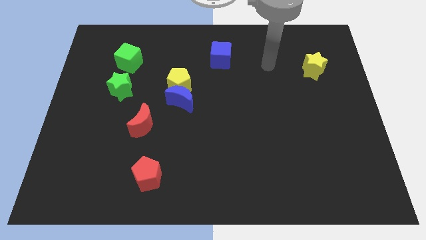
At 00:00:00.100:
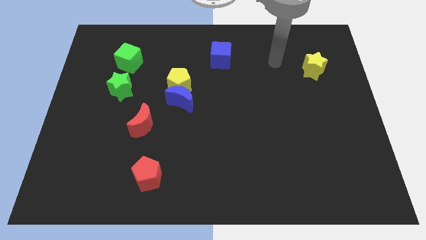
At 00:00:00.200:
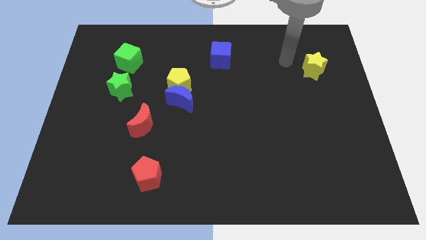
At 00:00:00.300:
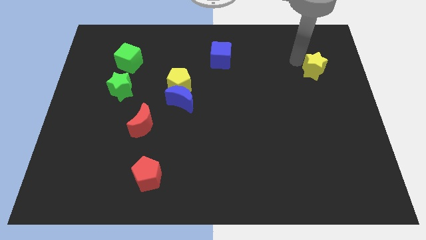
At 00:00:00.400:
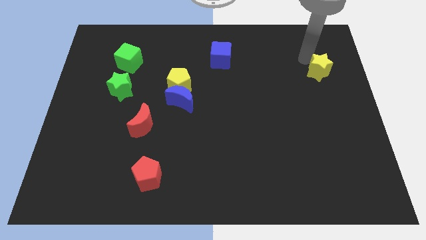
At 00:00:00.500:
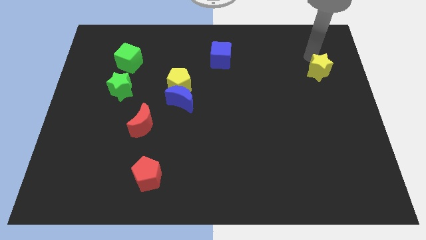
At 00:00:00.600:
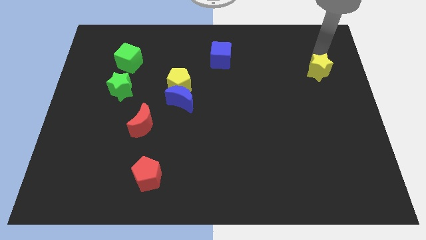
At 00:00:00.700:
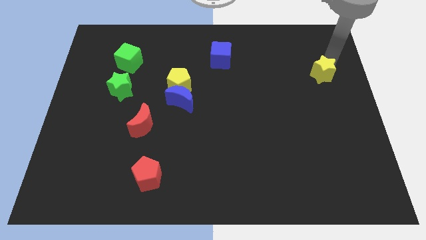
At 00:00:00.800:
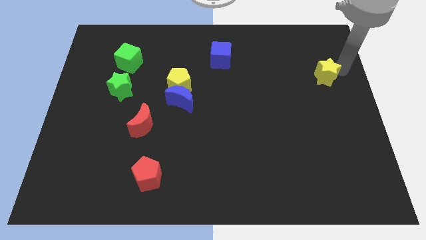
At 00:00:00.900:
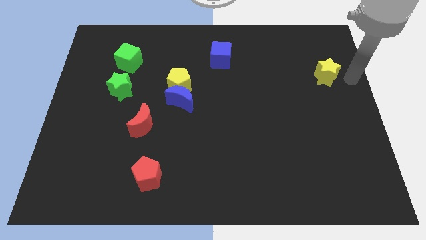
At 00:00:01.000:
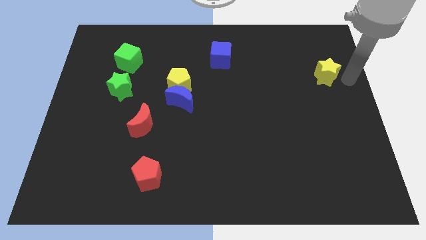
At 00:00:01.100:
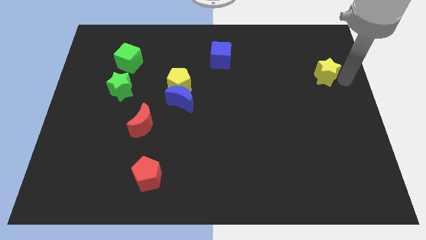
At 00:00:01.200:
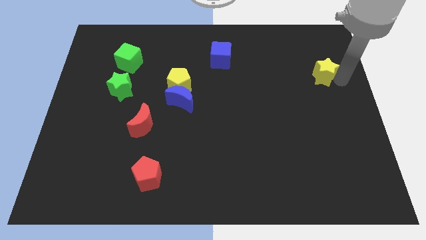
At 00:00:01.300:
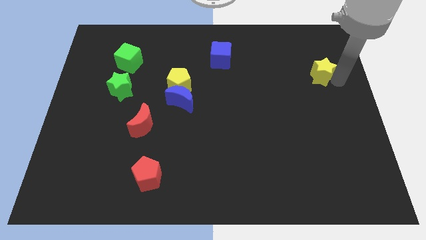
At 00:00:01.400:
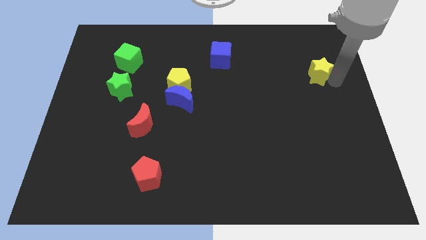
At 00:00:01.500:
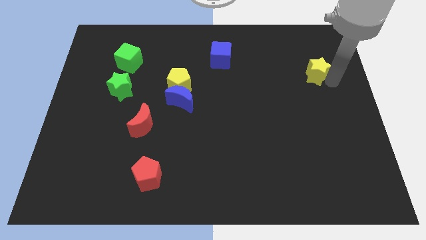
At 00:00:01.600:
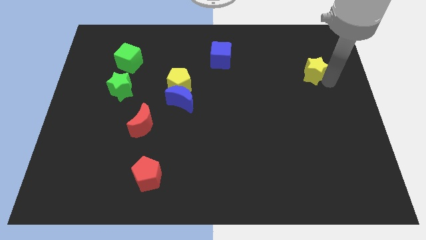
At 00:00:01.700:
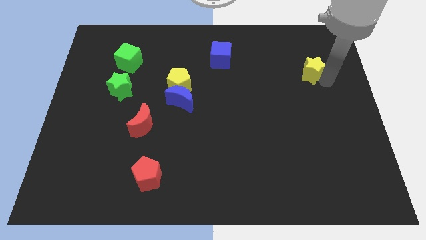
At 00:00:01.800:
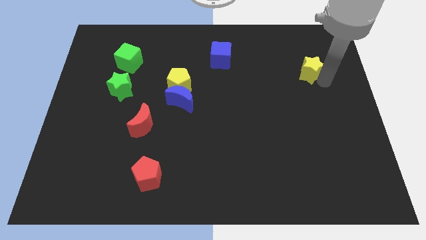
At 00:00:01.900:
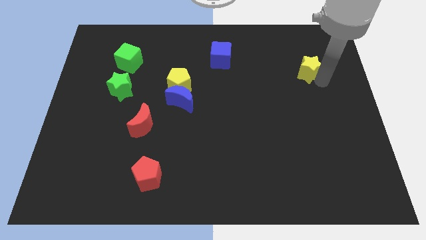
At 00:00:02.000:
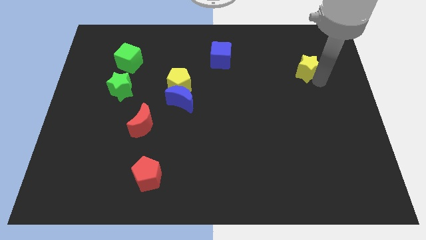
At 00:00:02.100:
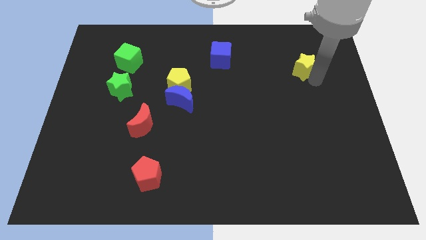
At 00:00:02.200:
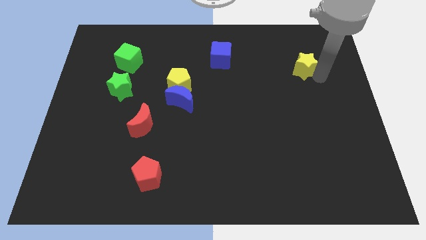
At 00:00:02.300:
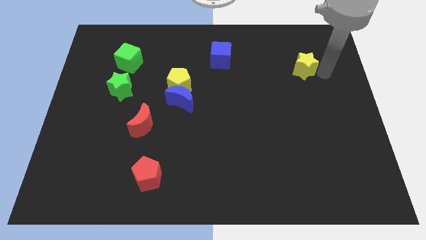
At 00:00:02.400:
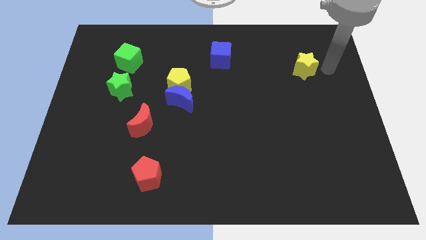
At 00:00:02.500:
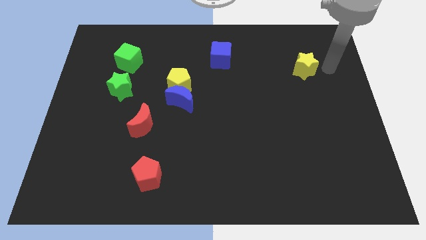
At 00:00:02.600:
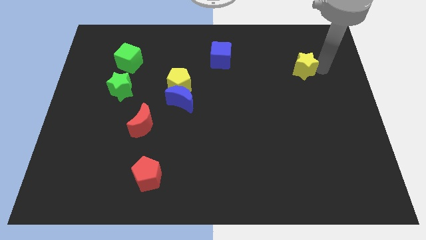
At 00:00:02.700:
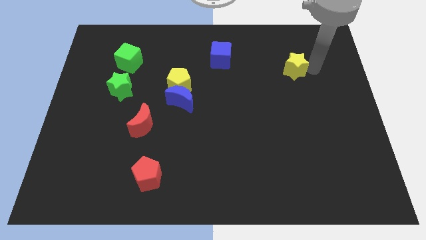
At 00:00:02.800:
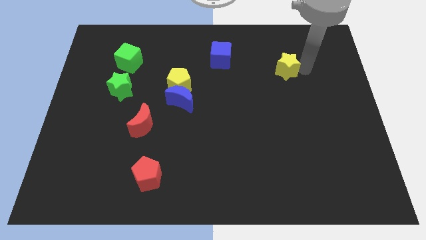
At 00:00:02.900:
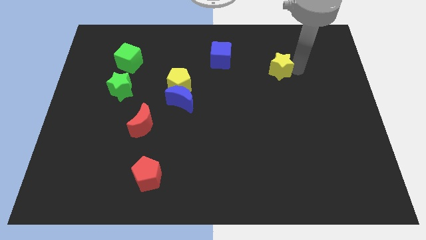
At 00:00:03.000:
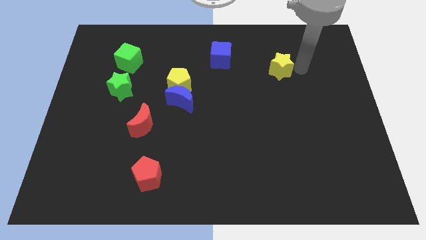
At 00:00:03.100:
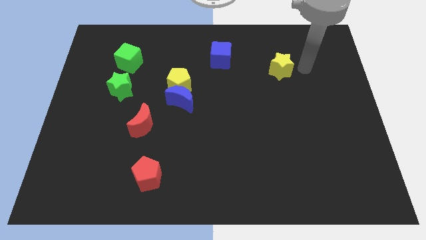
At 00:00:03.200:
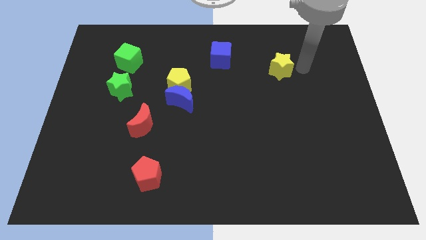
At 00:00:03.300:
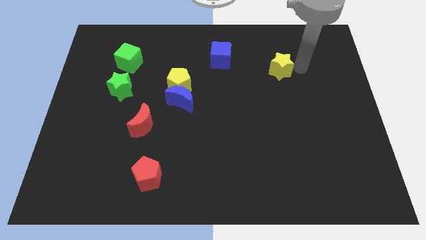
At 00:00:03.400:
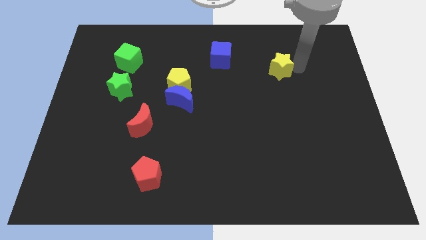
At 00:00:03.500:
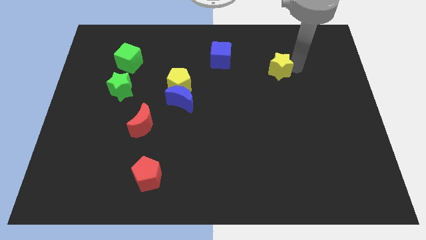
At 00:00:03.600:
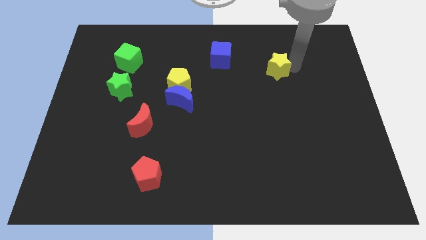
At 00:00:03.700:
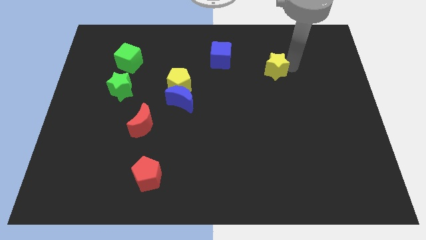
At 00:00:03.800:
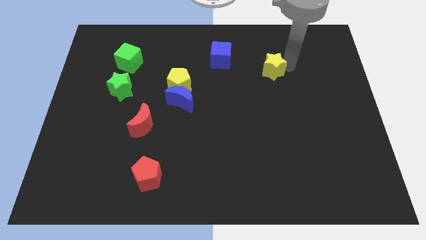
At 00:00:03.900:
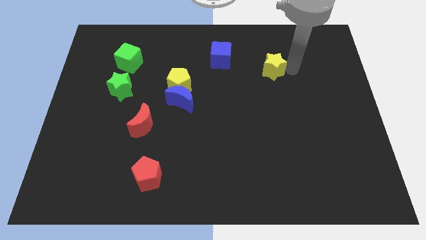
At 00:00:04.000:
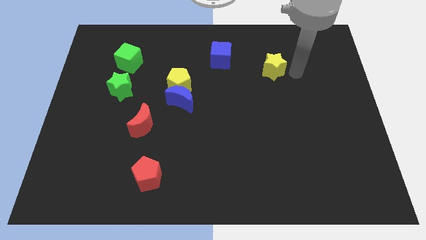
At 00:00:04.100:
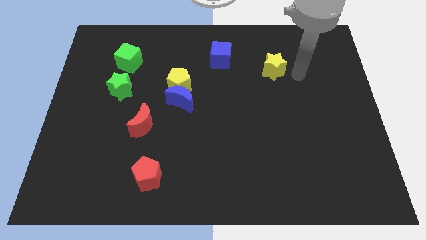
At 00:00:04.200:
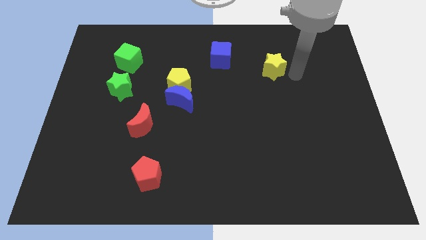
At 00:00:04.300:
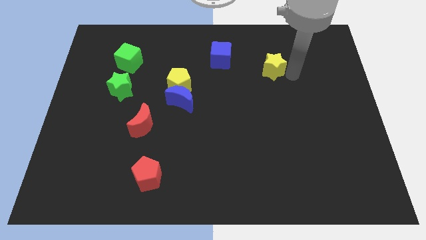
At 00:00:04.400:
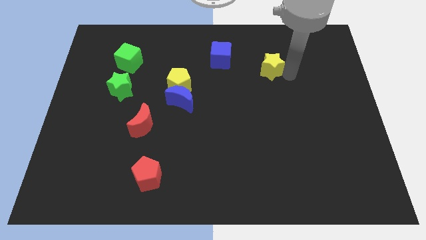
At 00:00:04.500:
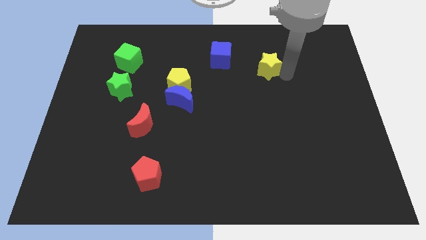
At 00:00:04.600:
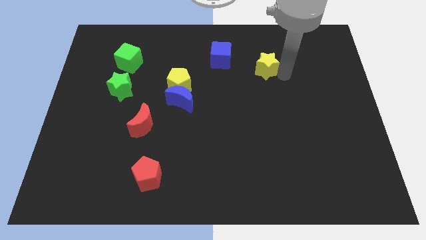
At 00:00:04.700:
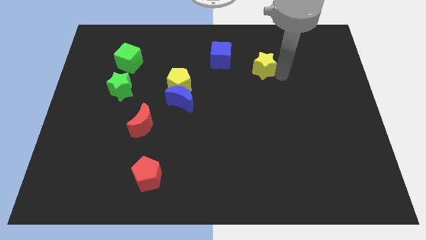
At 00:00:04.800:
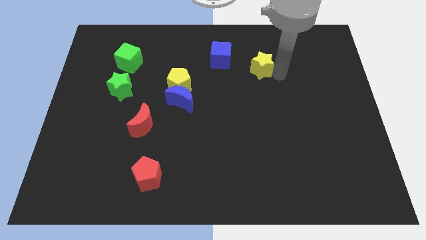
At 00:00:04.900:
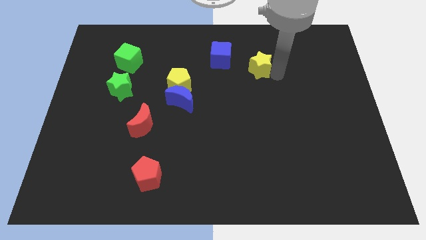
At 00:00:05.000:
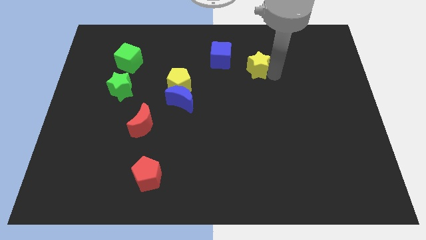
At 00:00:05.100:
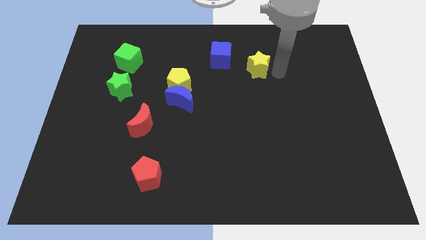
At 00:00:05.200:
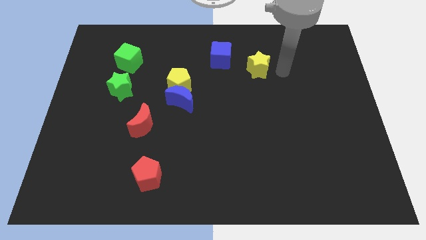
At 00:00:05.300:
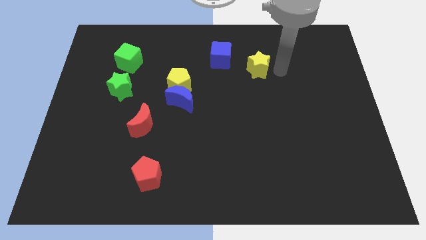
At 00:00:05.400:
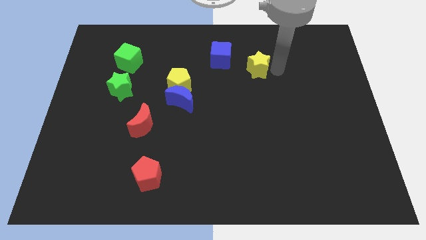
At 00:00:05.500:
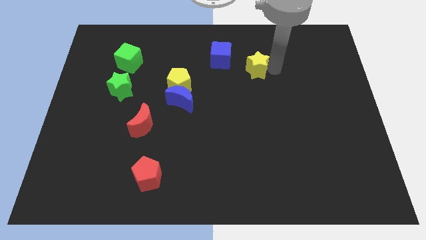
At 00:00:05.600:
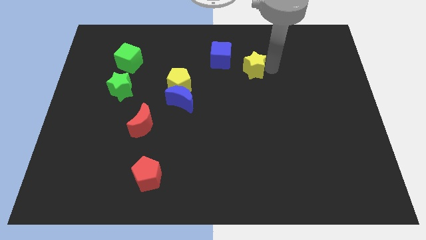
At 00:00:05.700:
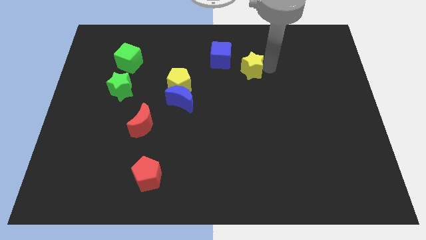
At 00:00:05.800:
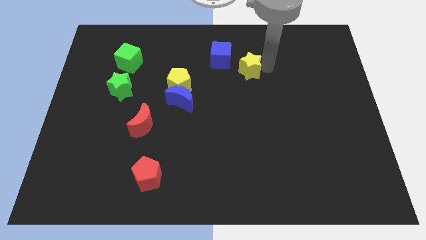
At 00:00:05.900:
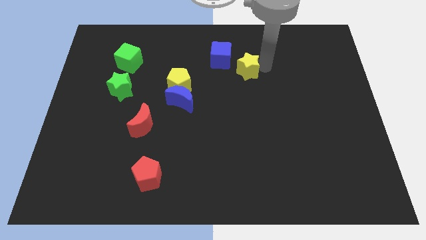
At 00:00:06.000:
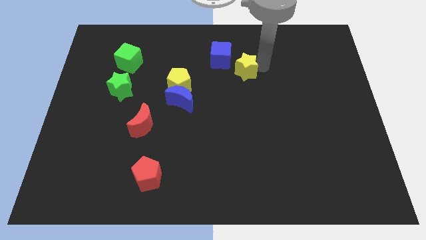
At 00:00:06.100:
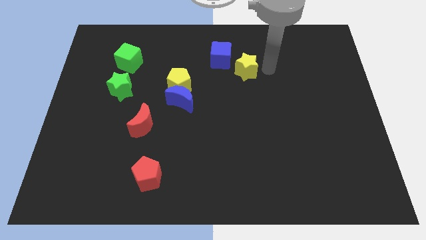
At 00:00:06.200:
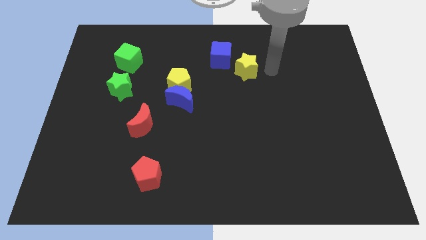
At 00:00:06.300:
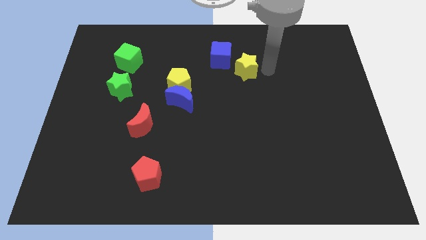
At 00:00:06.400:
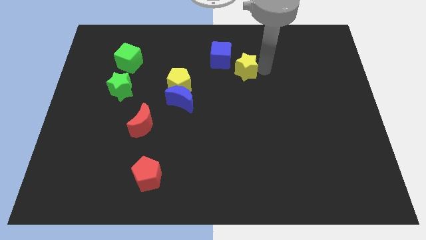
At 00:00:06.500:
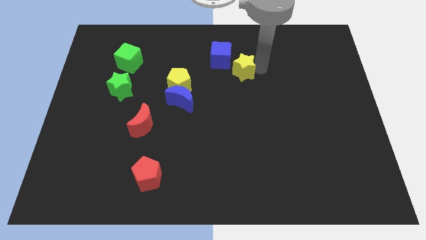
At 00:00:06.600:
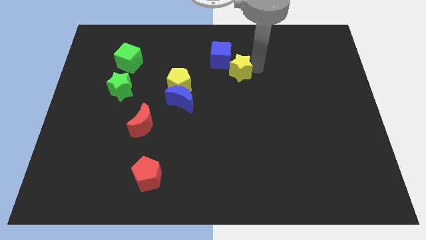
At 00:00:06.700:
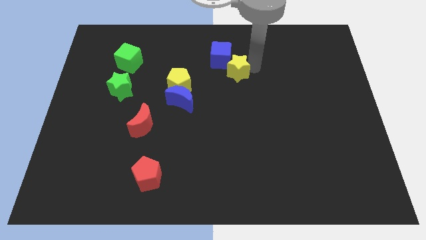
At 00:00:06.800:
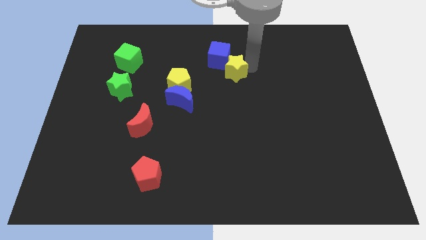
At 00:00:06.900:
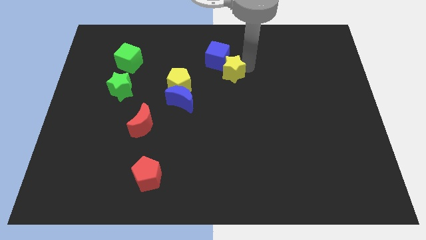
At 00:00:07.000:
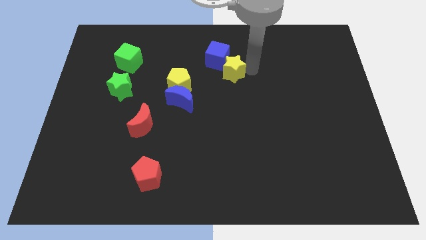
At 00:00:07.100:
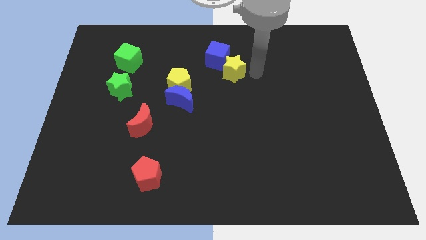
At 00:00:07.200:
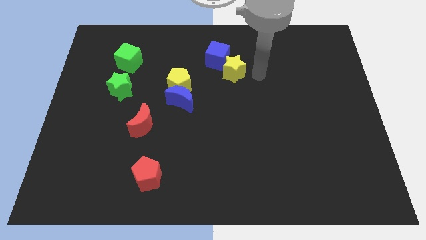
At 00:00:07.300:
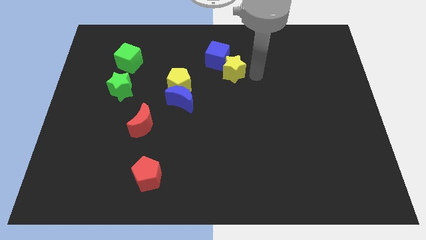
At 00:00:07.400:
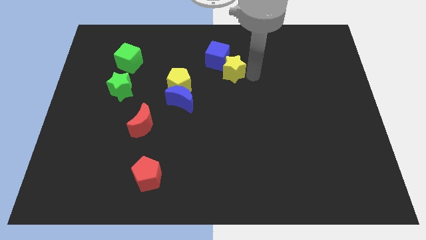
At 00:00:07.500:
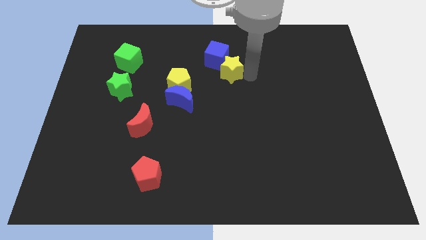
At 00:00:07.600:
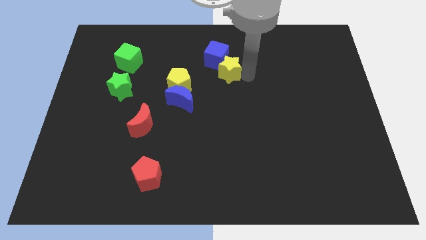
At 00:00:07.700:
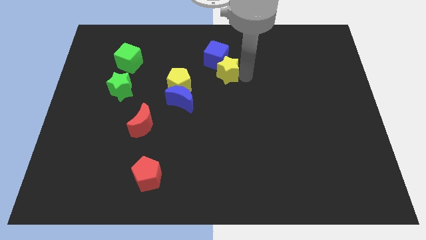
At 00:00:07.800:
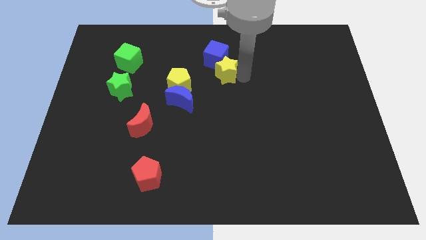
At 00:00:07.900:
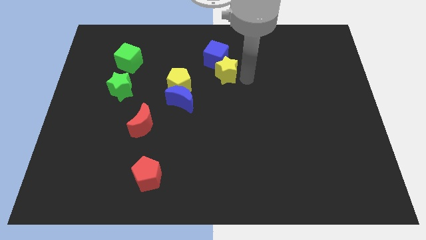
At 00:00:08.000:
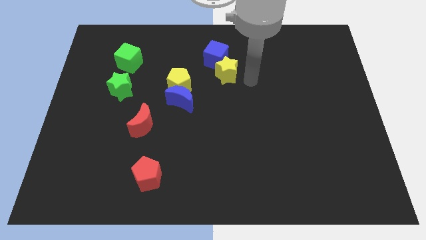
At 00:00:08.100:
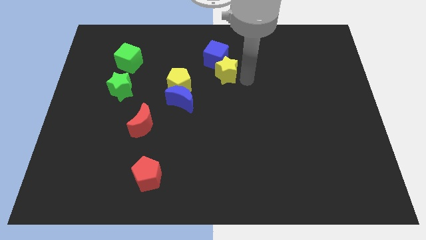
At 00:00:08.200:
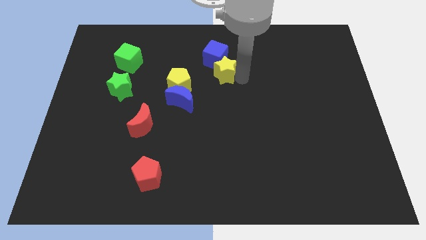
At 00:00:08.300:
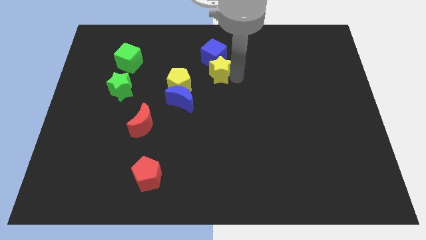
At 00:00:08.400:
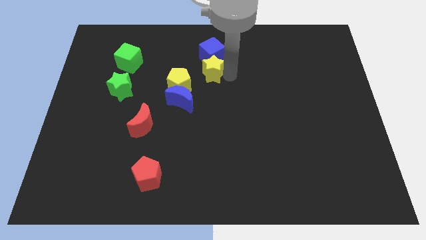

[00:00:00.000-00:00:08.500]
put the yellow star diagonally down and to the left of the blue cube
